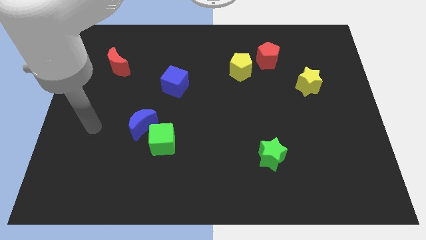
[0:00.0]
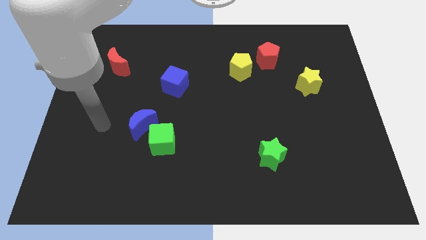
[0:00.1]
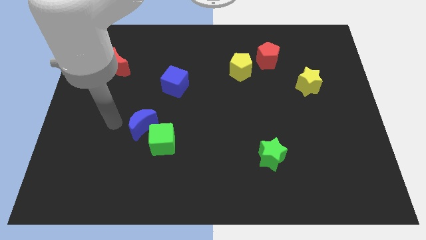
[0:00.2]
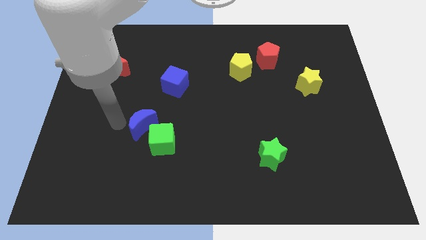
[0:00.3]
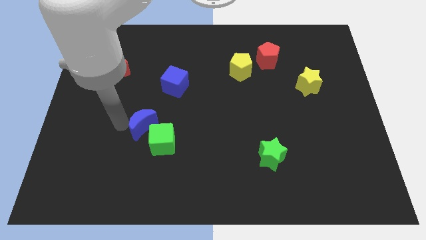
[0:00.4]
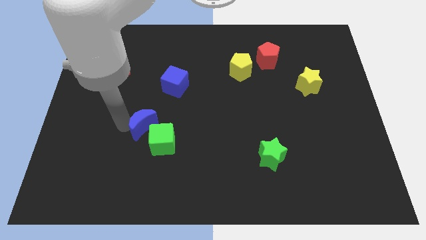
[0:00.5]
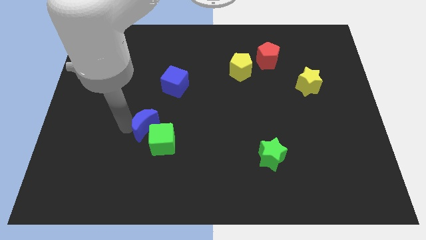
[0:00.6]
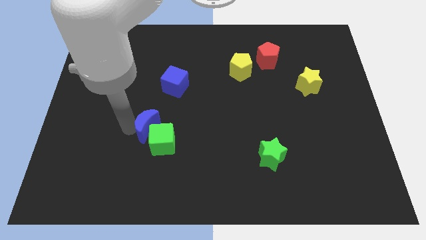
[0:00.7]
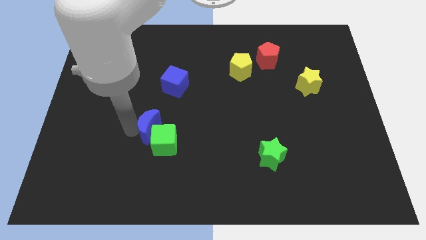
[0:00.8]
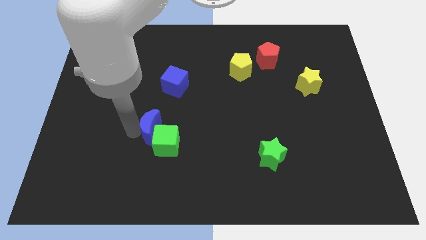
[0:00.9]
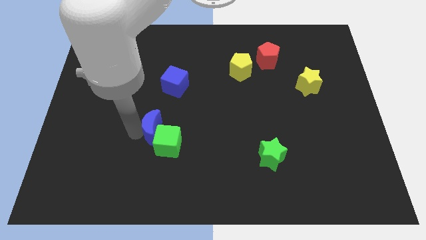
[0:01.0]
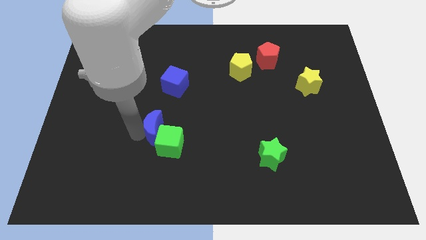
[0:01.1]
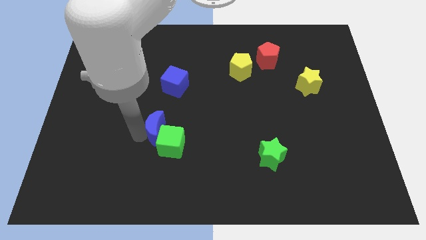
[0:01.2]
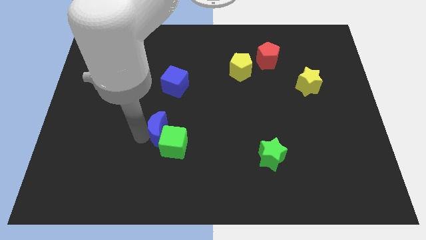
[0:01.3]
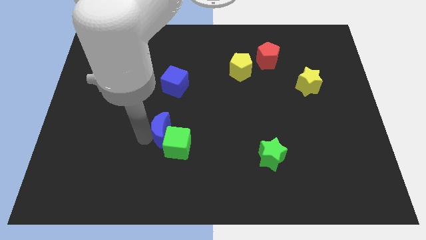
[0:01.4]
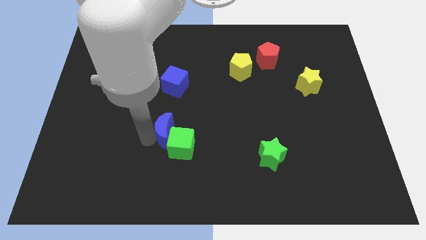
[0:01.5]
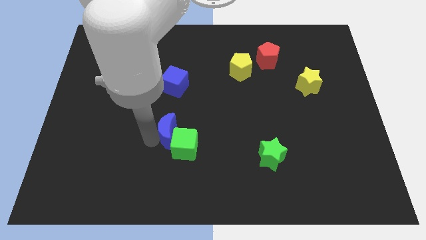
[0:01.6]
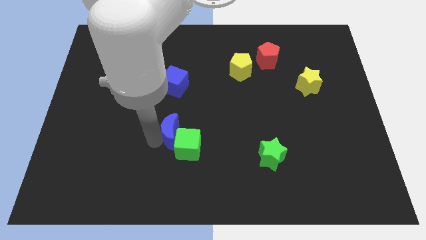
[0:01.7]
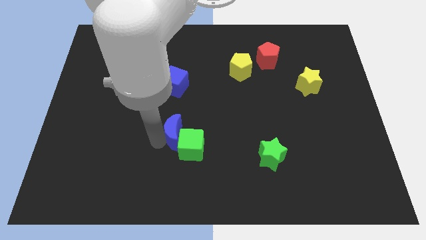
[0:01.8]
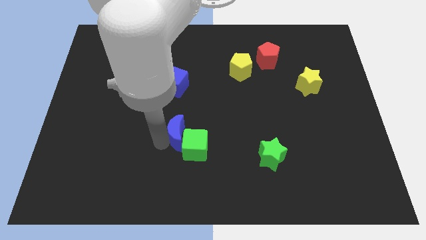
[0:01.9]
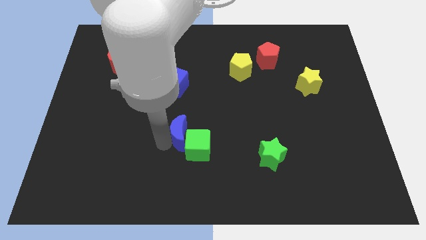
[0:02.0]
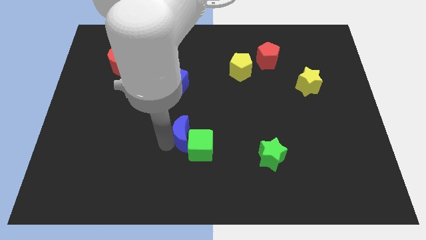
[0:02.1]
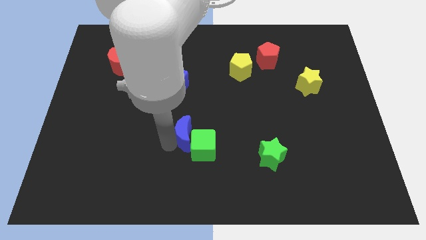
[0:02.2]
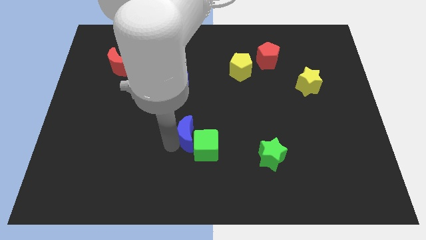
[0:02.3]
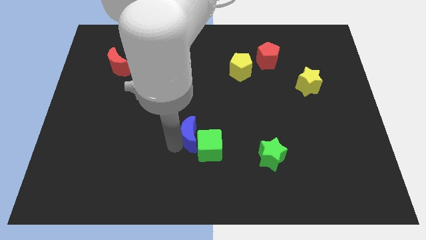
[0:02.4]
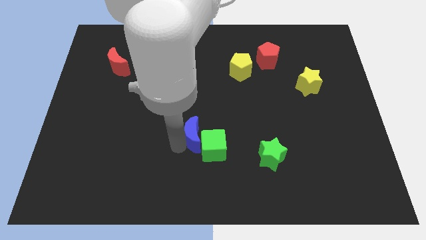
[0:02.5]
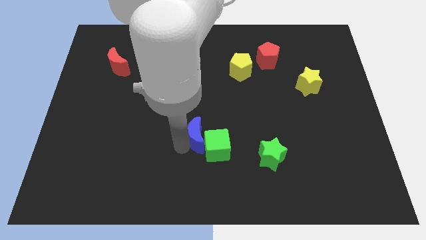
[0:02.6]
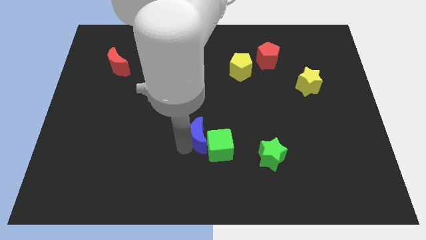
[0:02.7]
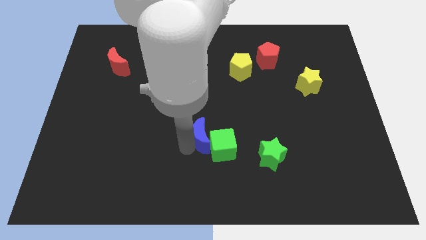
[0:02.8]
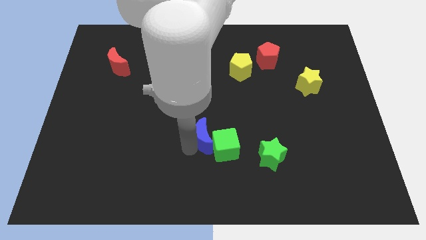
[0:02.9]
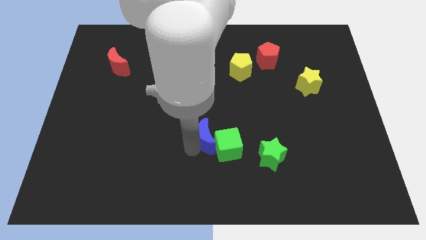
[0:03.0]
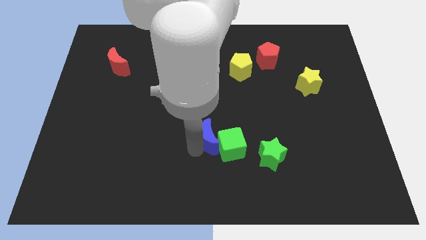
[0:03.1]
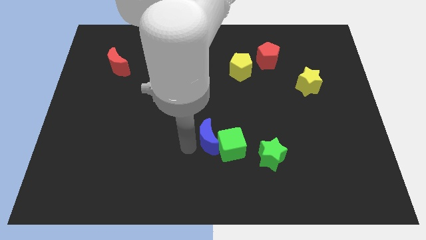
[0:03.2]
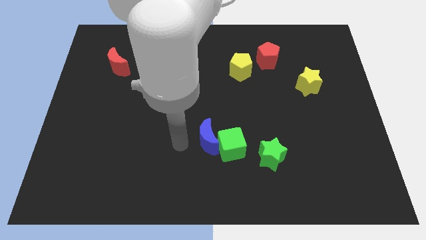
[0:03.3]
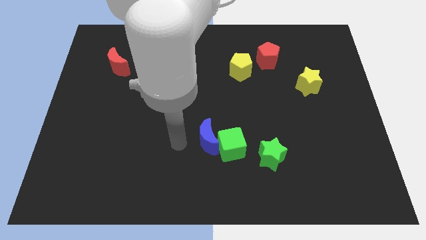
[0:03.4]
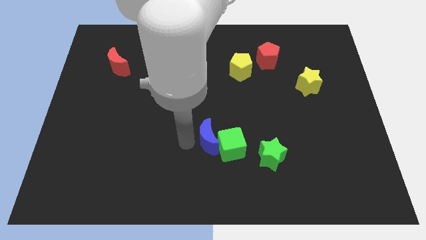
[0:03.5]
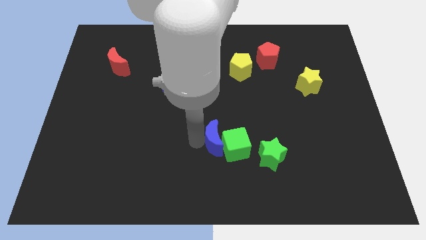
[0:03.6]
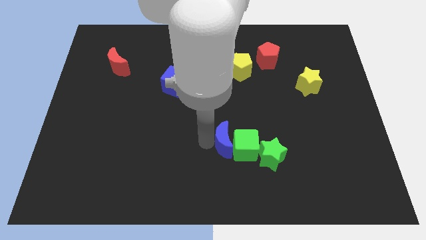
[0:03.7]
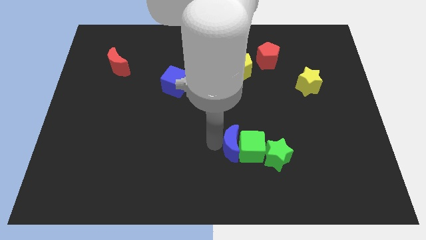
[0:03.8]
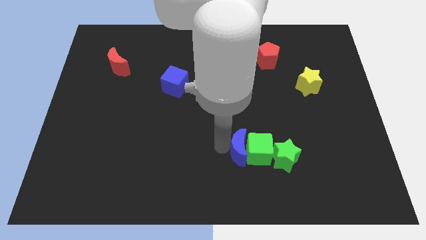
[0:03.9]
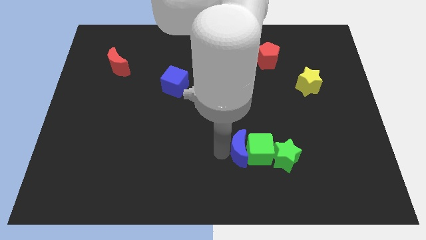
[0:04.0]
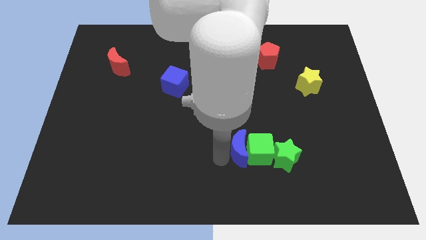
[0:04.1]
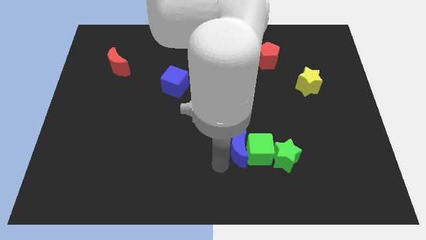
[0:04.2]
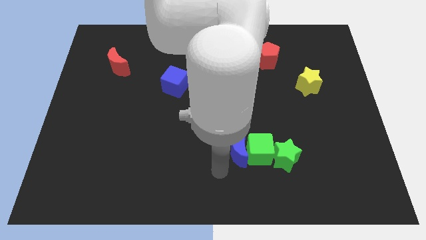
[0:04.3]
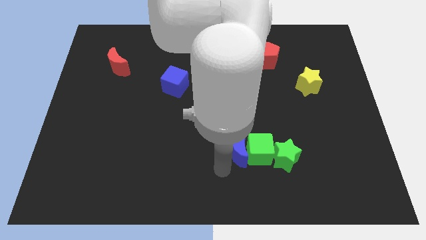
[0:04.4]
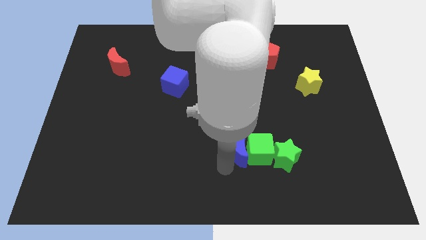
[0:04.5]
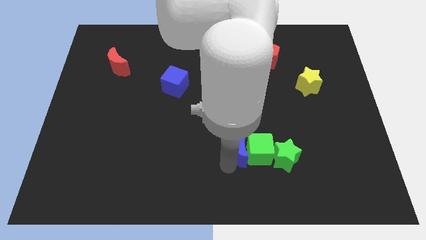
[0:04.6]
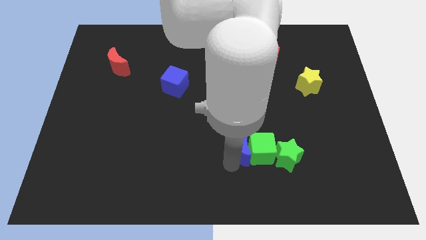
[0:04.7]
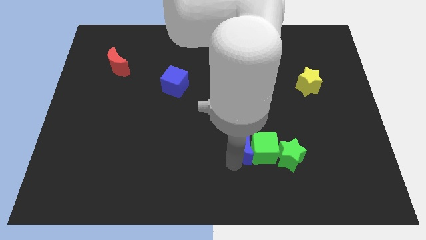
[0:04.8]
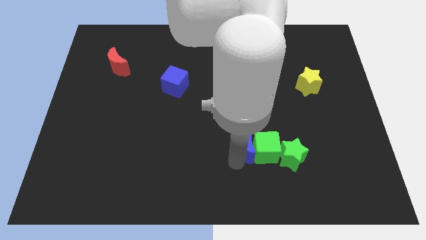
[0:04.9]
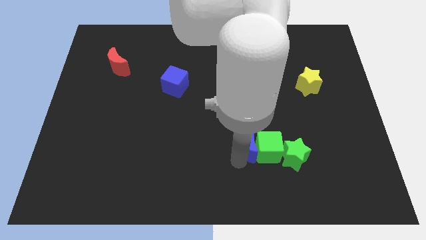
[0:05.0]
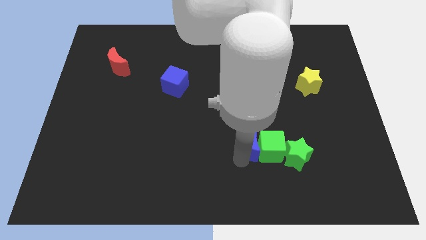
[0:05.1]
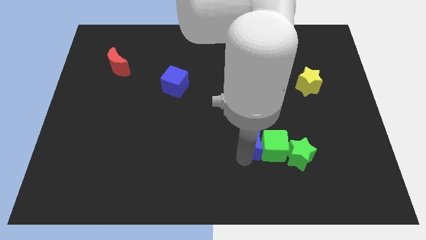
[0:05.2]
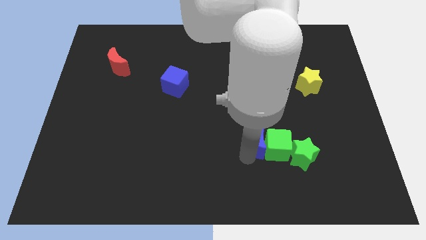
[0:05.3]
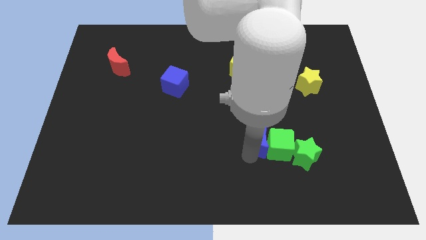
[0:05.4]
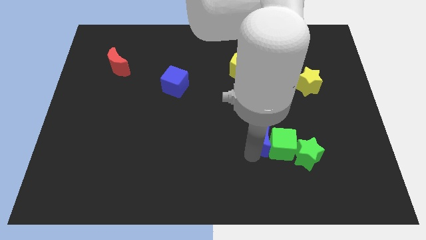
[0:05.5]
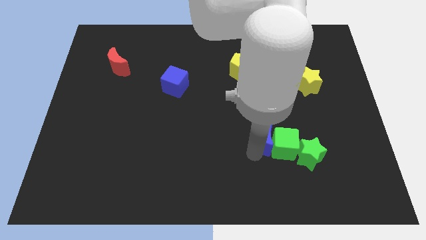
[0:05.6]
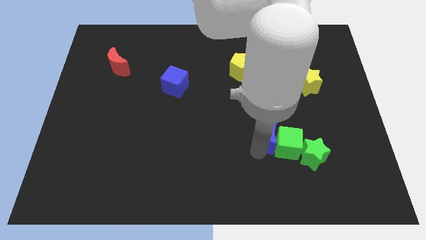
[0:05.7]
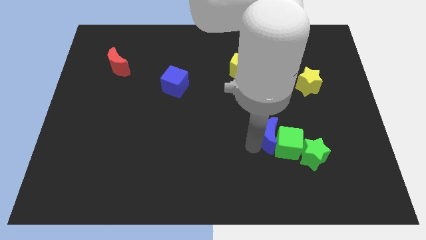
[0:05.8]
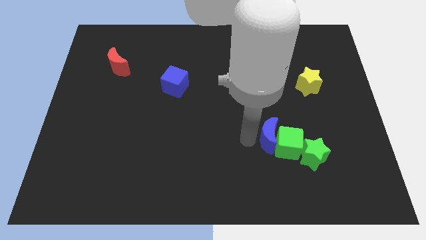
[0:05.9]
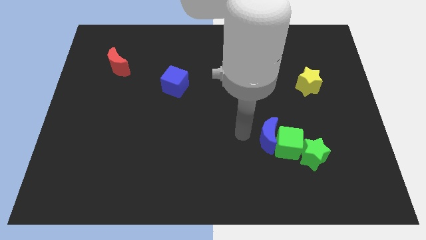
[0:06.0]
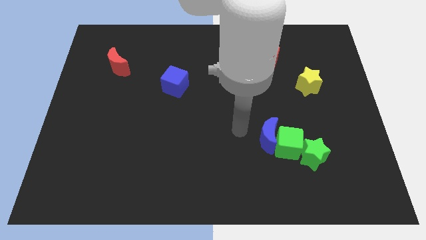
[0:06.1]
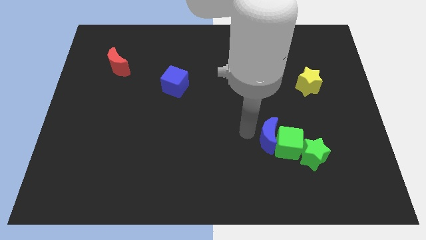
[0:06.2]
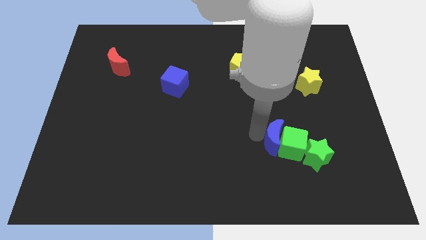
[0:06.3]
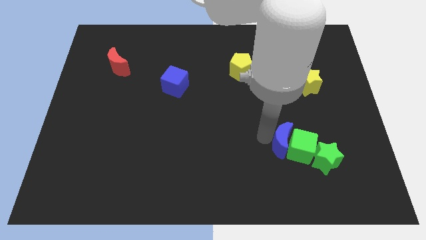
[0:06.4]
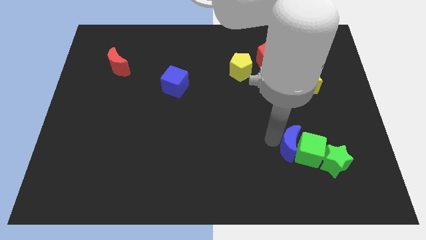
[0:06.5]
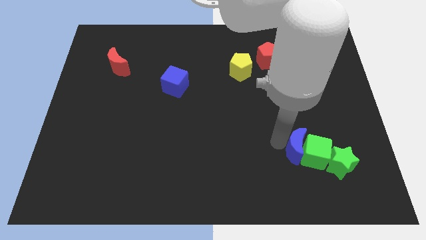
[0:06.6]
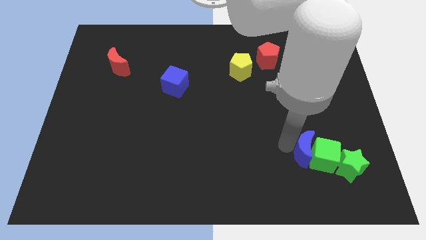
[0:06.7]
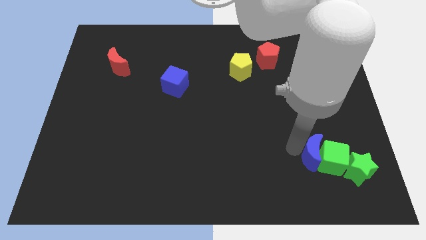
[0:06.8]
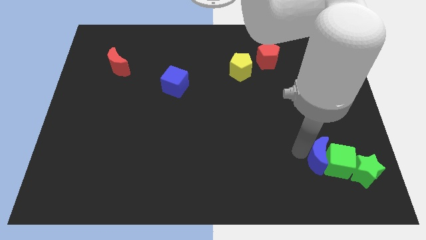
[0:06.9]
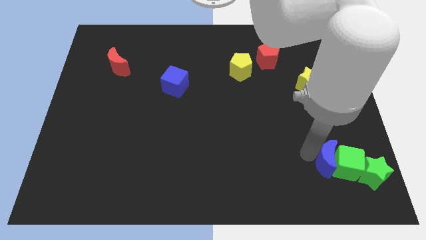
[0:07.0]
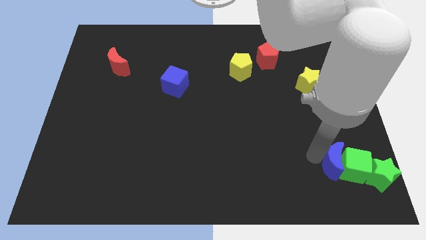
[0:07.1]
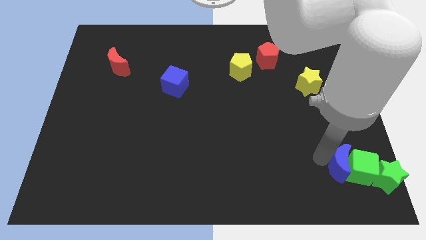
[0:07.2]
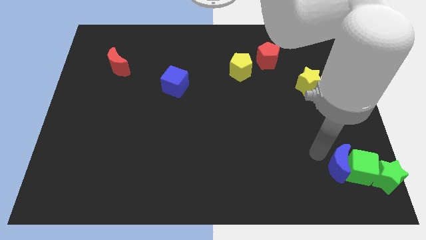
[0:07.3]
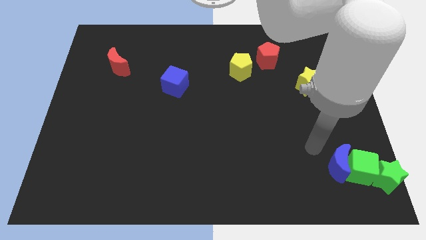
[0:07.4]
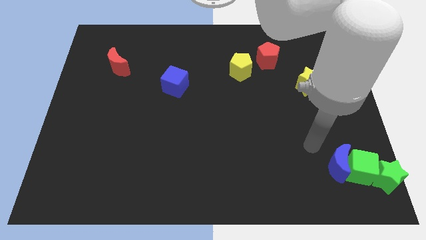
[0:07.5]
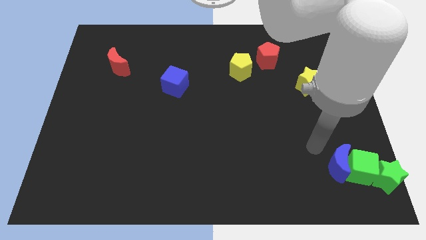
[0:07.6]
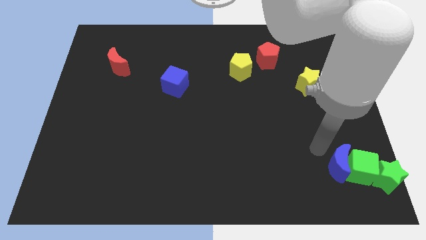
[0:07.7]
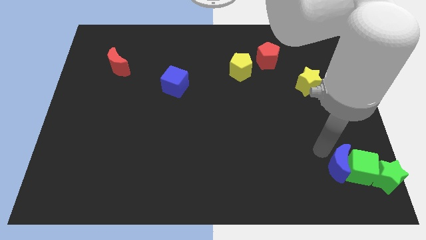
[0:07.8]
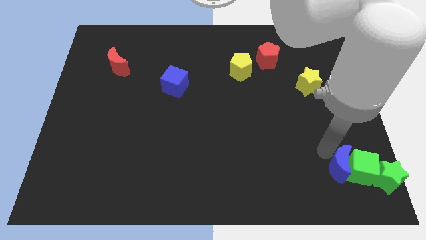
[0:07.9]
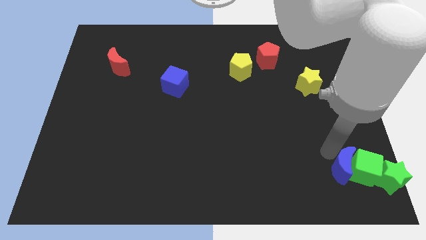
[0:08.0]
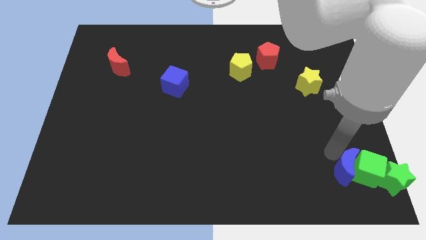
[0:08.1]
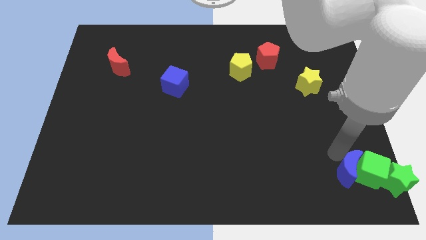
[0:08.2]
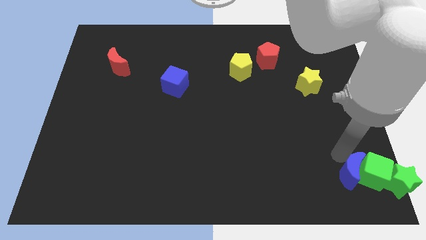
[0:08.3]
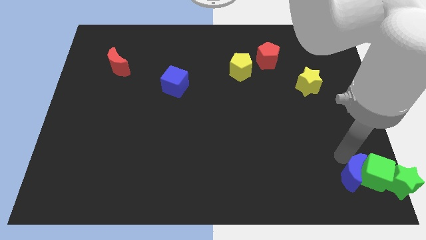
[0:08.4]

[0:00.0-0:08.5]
move the blue moon to the bottom right corner
